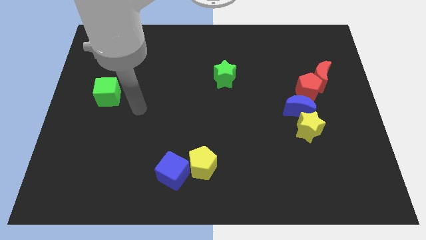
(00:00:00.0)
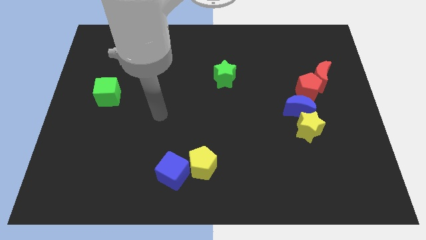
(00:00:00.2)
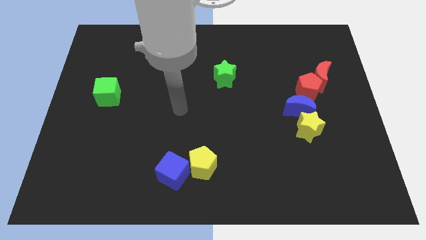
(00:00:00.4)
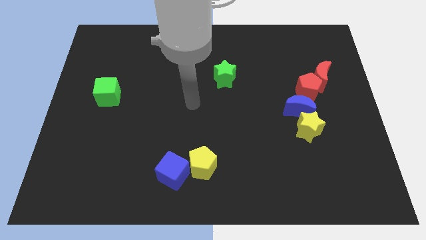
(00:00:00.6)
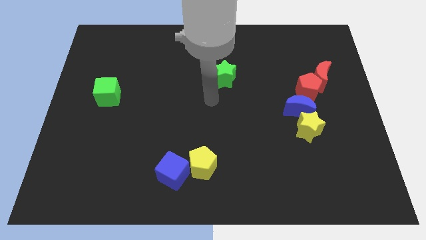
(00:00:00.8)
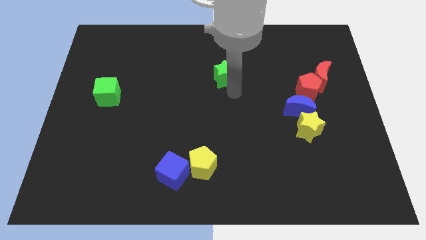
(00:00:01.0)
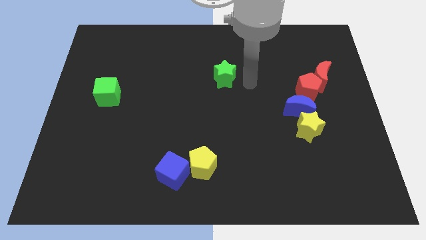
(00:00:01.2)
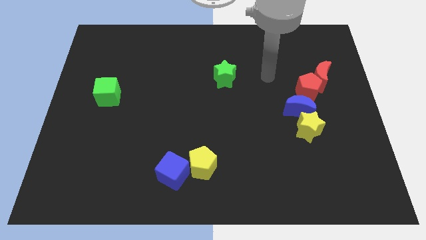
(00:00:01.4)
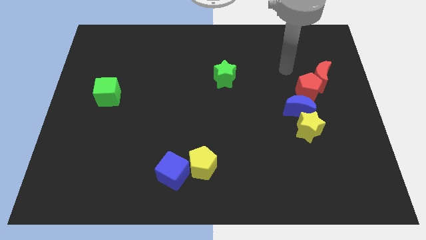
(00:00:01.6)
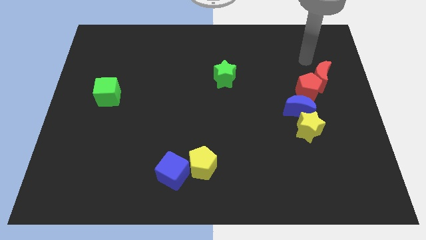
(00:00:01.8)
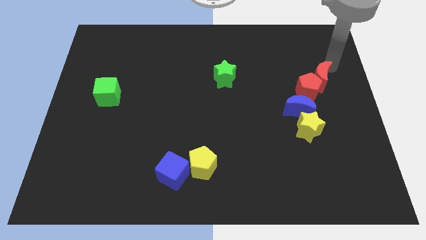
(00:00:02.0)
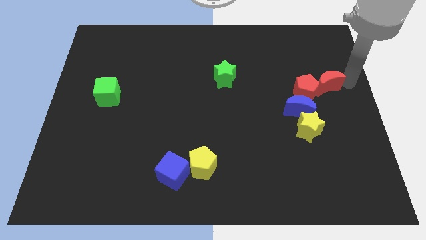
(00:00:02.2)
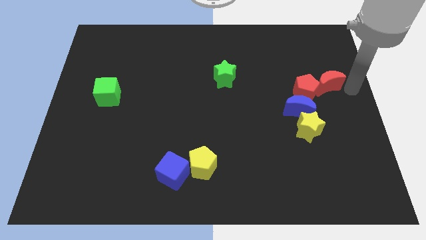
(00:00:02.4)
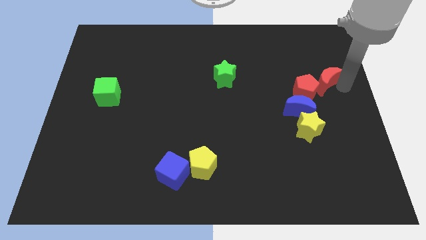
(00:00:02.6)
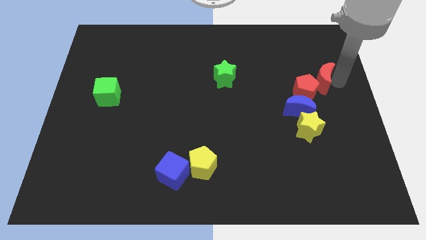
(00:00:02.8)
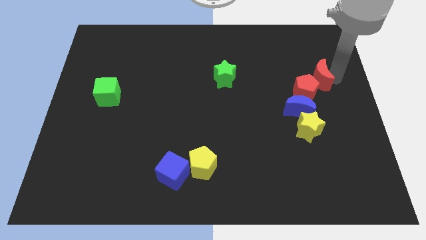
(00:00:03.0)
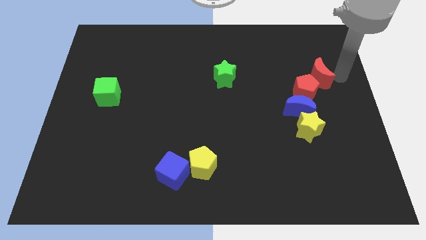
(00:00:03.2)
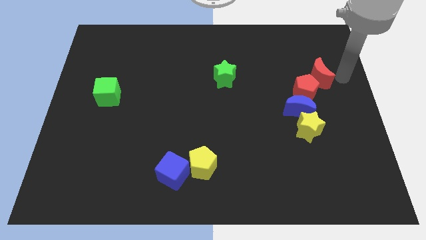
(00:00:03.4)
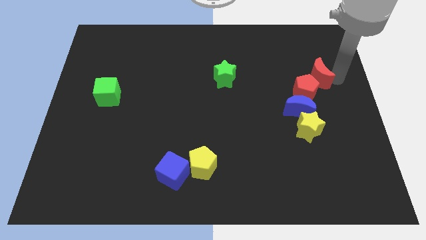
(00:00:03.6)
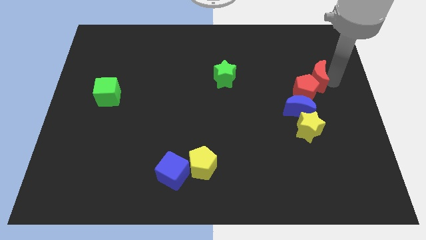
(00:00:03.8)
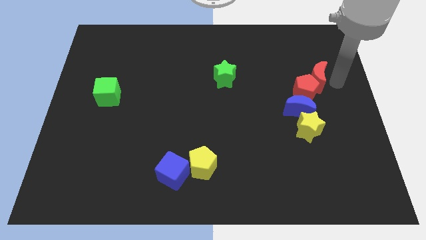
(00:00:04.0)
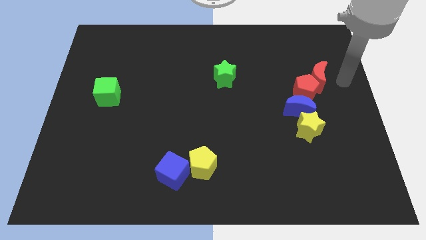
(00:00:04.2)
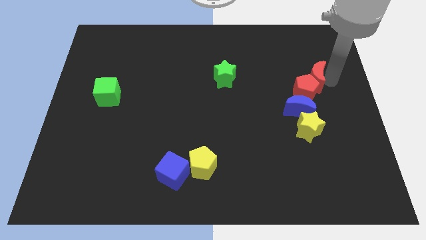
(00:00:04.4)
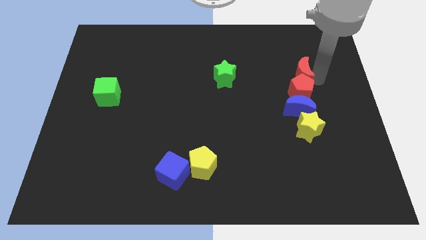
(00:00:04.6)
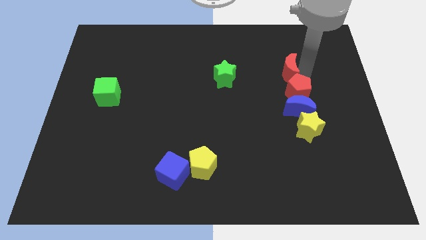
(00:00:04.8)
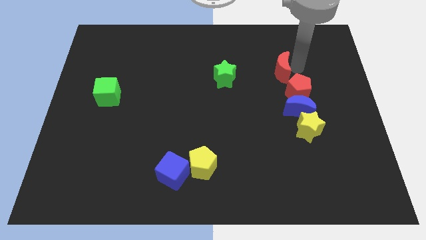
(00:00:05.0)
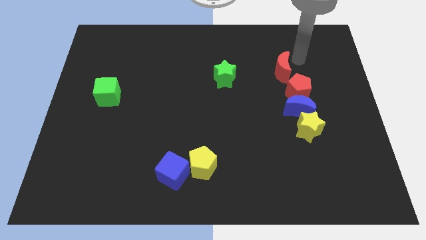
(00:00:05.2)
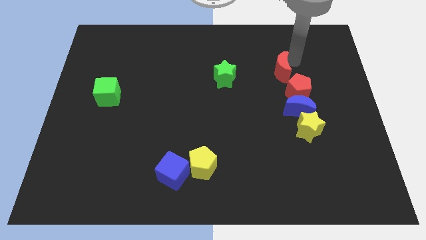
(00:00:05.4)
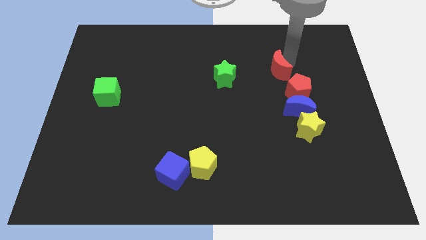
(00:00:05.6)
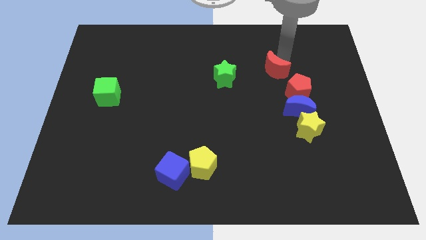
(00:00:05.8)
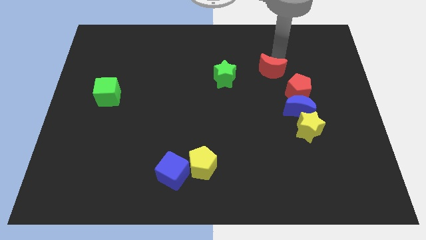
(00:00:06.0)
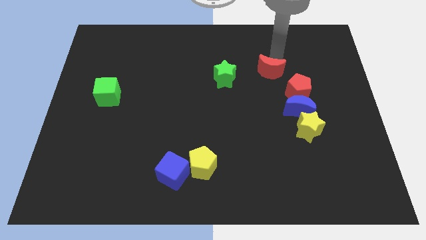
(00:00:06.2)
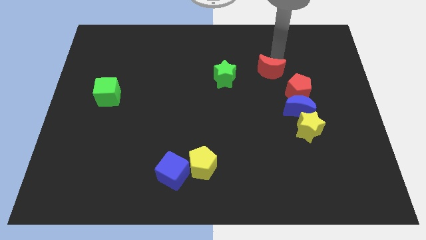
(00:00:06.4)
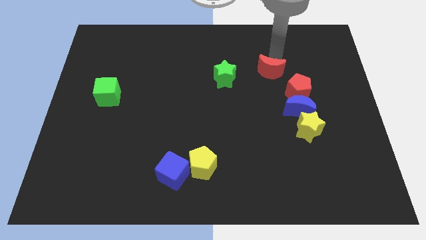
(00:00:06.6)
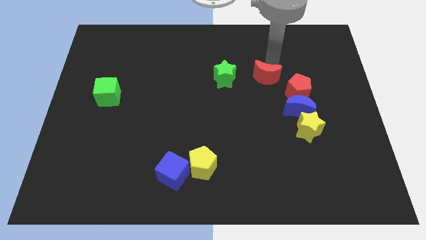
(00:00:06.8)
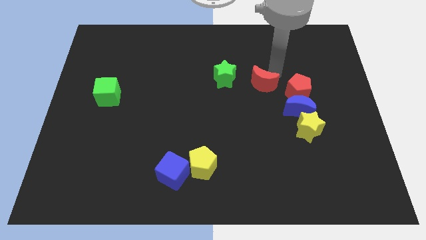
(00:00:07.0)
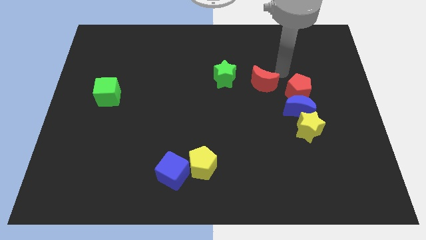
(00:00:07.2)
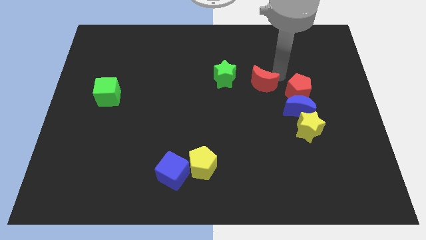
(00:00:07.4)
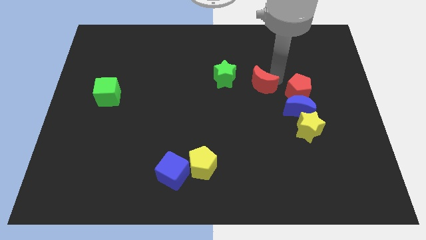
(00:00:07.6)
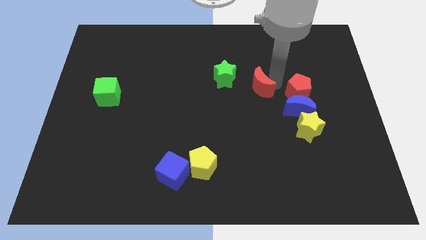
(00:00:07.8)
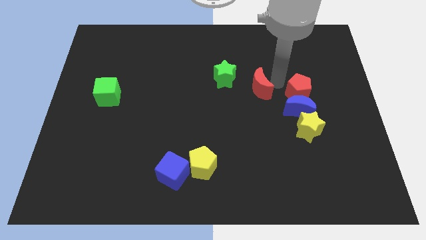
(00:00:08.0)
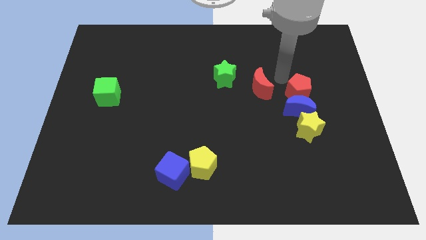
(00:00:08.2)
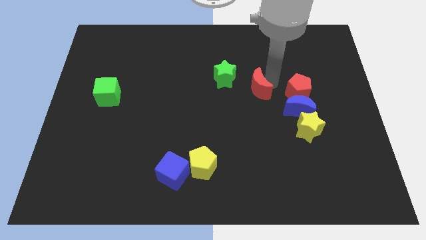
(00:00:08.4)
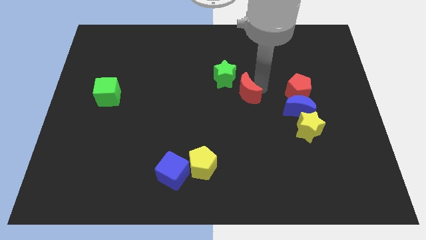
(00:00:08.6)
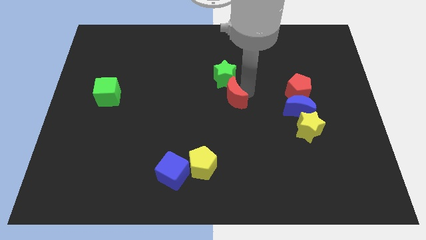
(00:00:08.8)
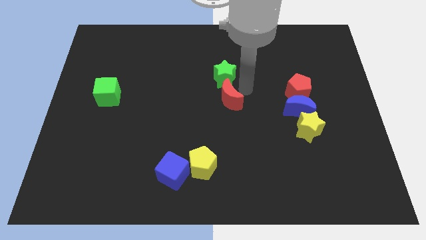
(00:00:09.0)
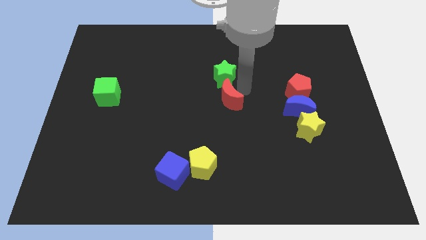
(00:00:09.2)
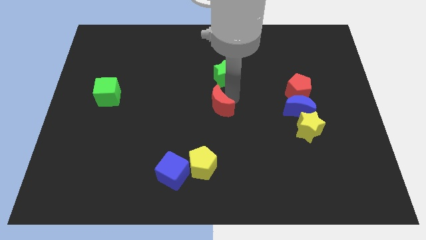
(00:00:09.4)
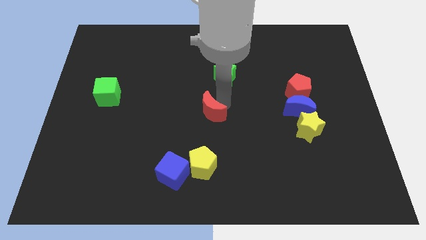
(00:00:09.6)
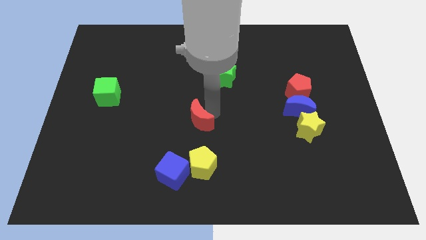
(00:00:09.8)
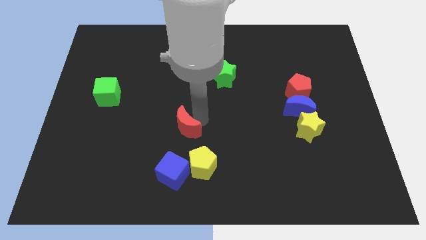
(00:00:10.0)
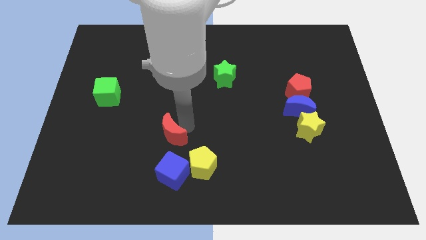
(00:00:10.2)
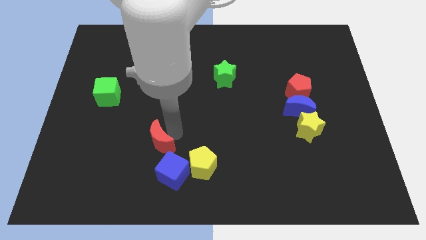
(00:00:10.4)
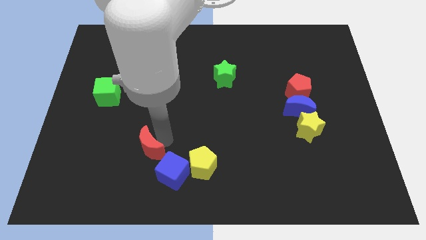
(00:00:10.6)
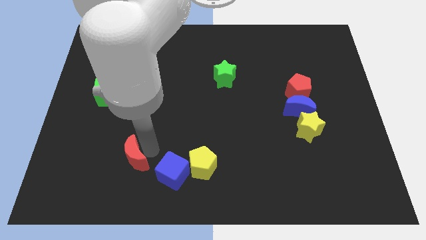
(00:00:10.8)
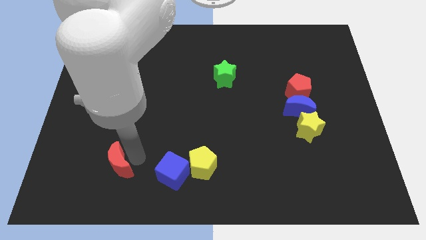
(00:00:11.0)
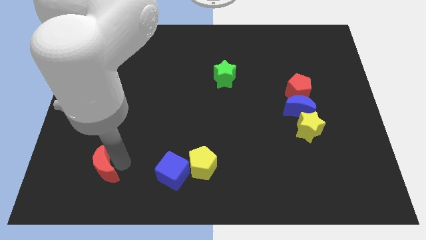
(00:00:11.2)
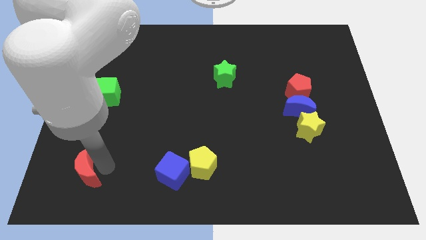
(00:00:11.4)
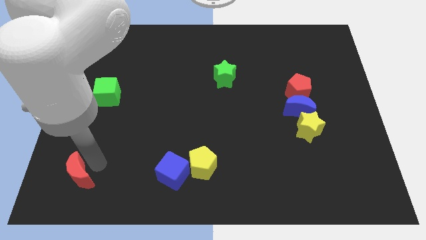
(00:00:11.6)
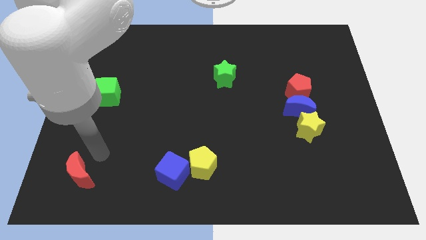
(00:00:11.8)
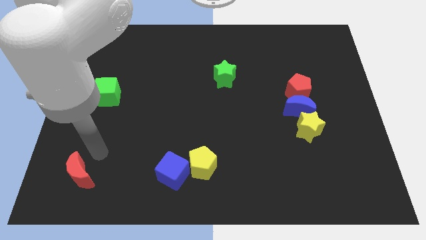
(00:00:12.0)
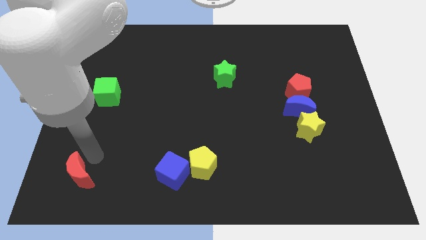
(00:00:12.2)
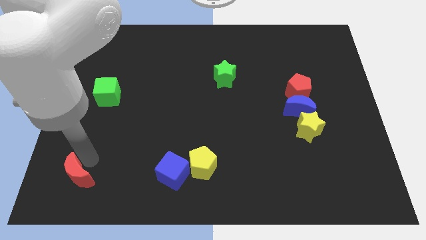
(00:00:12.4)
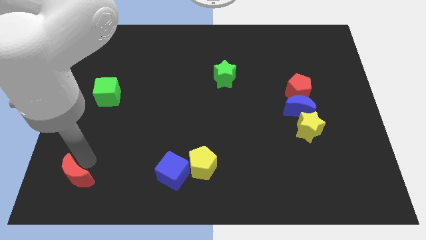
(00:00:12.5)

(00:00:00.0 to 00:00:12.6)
move the red moon to the bottom left of the board
